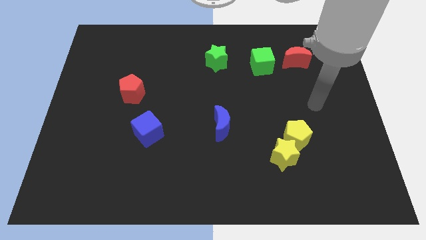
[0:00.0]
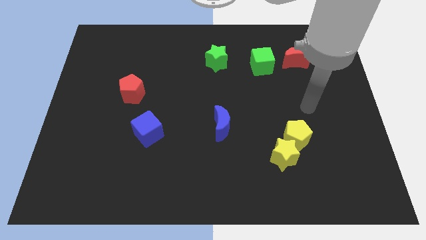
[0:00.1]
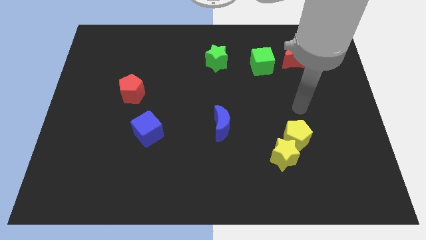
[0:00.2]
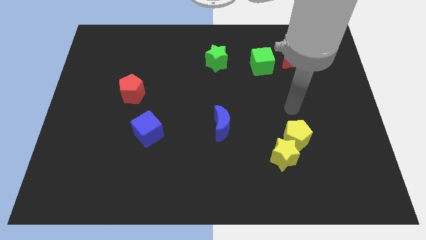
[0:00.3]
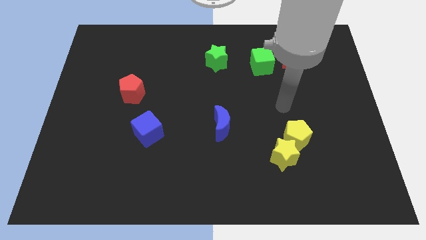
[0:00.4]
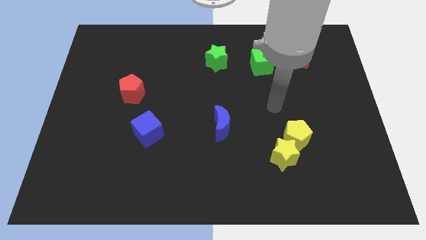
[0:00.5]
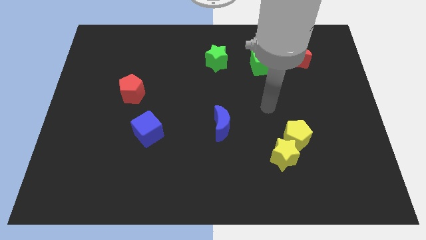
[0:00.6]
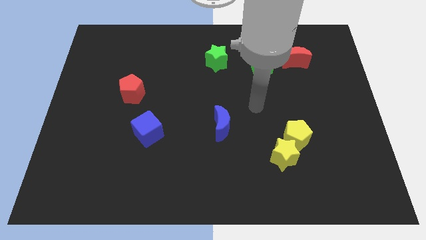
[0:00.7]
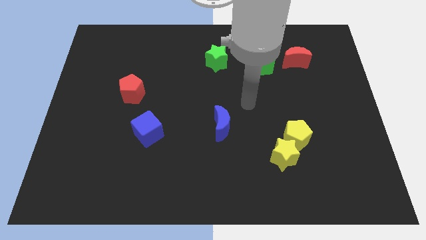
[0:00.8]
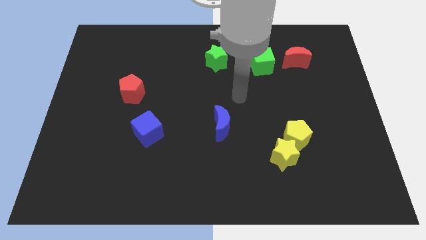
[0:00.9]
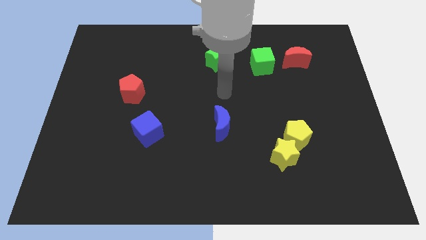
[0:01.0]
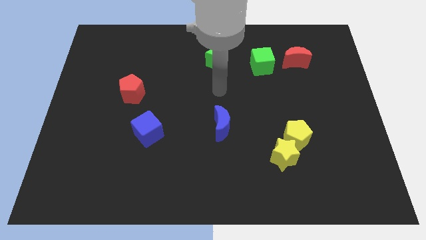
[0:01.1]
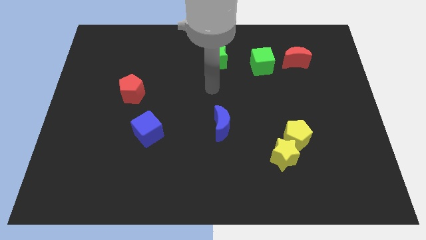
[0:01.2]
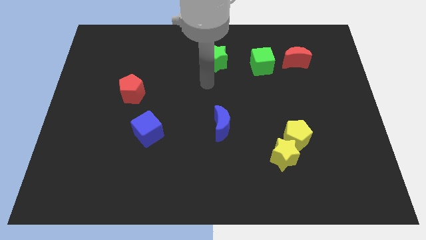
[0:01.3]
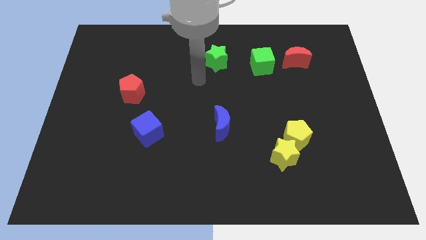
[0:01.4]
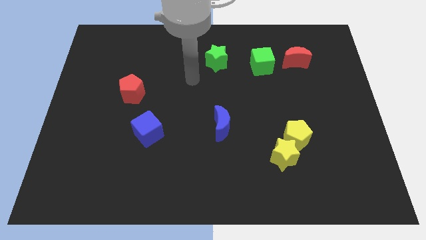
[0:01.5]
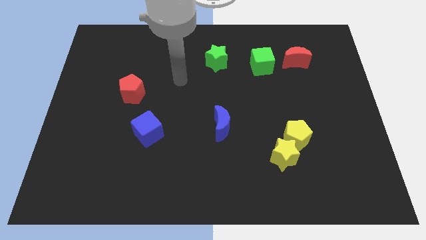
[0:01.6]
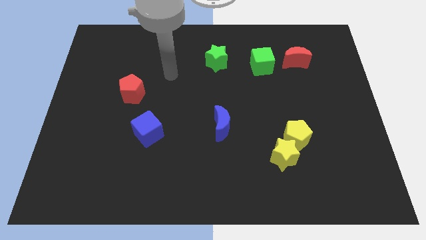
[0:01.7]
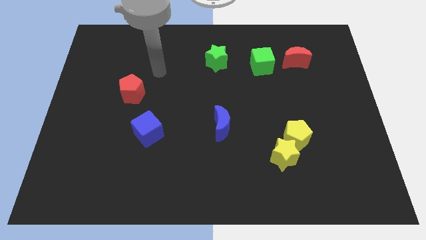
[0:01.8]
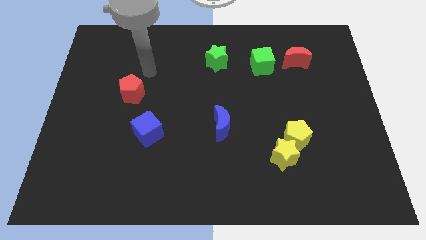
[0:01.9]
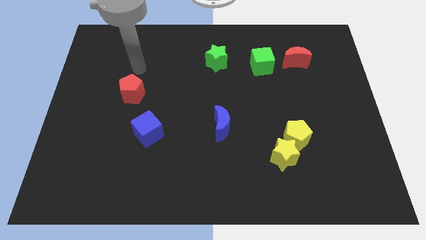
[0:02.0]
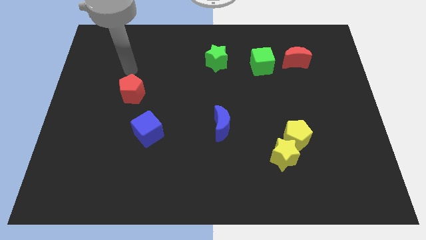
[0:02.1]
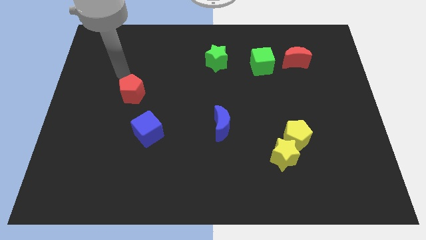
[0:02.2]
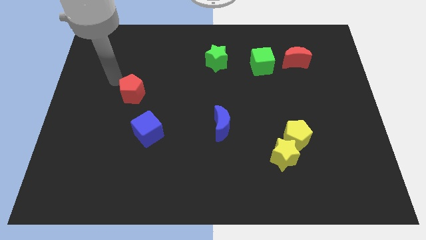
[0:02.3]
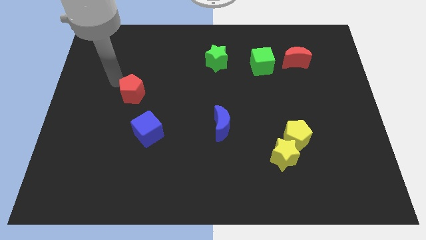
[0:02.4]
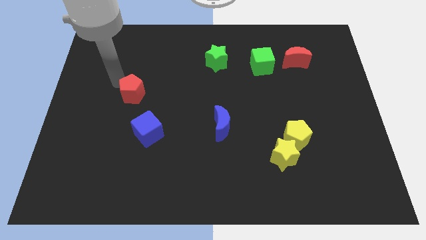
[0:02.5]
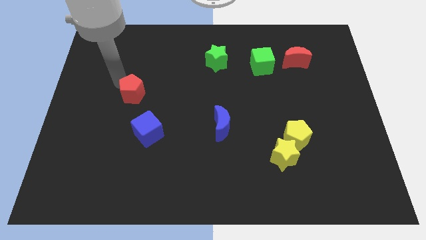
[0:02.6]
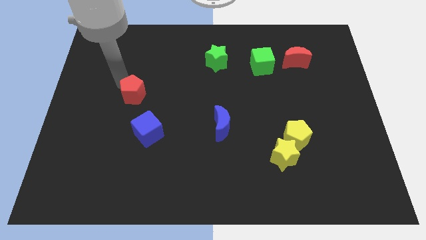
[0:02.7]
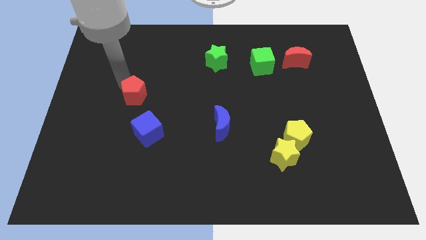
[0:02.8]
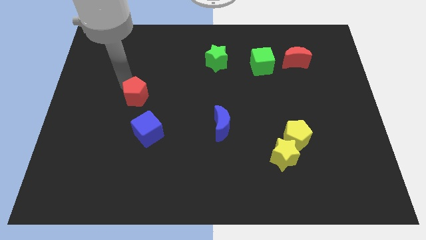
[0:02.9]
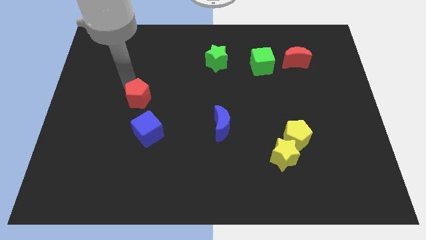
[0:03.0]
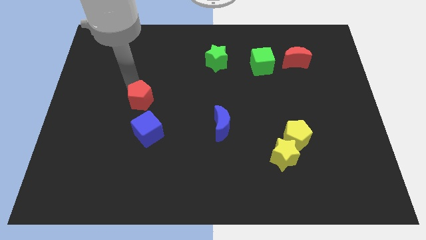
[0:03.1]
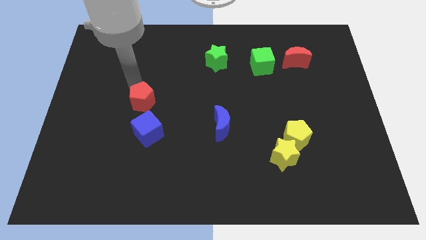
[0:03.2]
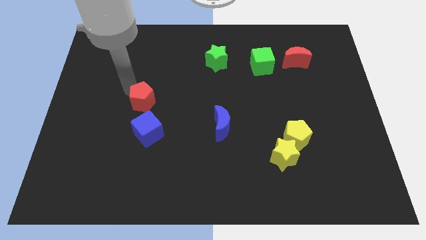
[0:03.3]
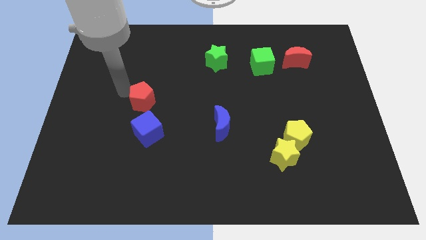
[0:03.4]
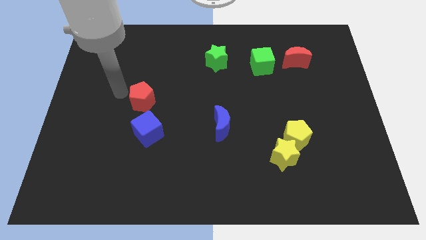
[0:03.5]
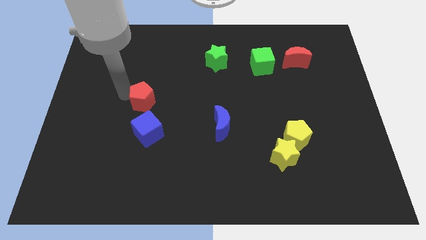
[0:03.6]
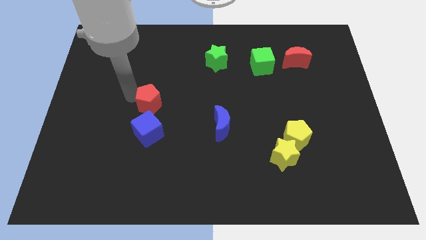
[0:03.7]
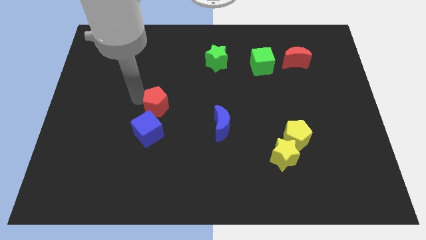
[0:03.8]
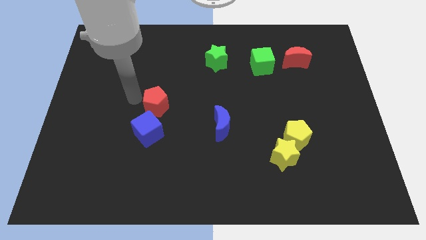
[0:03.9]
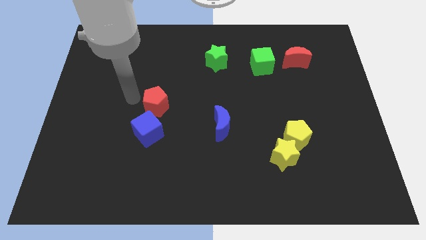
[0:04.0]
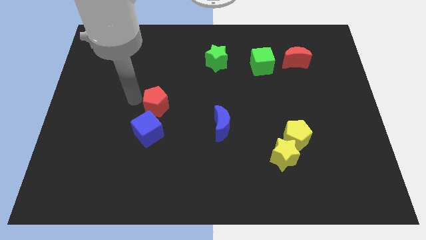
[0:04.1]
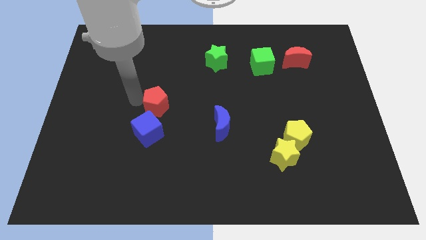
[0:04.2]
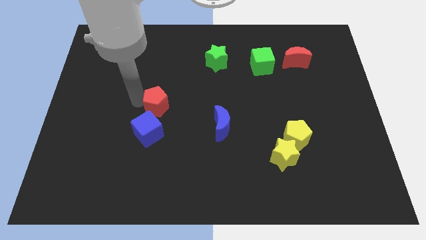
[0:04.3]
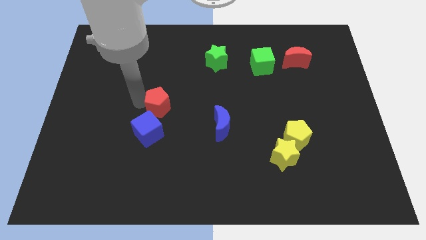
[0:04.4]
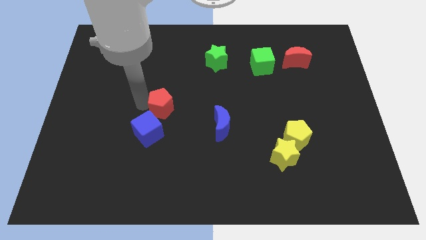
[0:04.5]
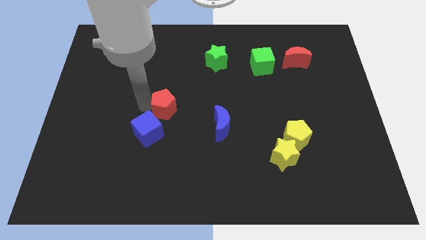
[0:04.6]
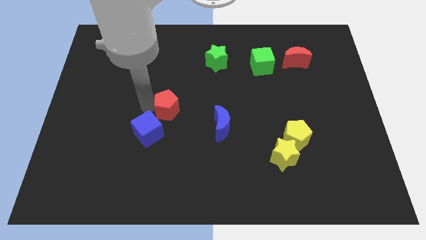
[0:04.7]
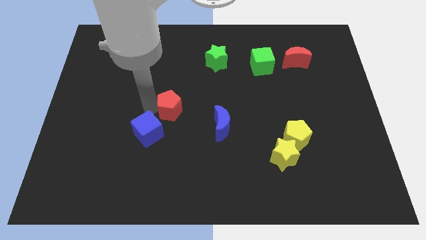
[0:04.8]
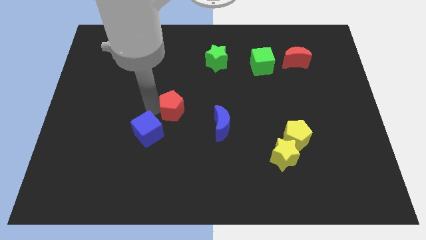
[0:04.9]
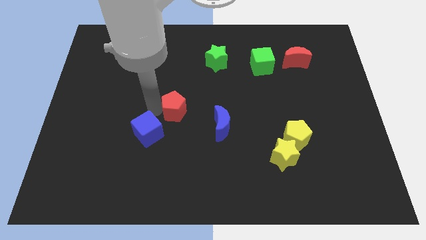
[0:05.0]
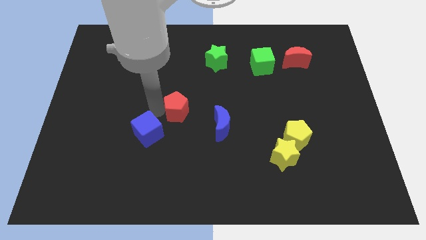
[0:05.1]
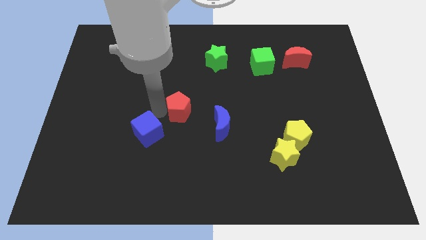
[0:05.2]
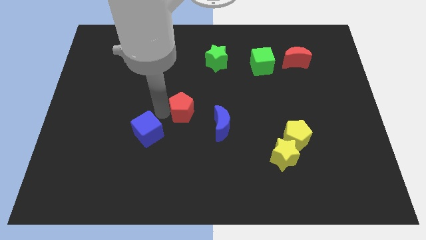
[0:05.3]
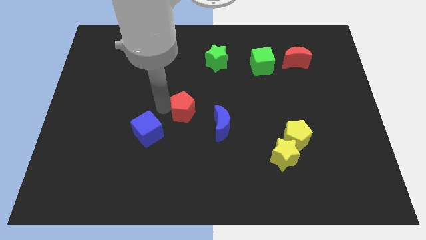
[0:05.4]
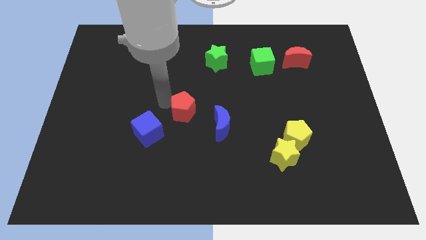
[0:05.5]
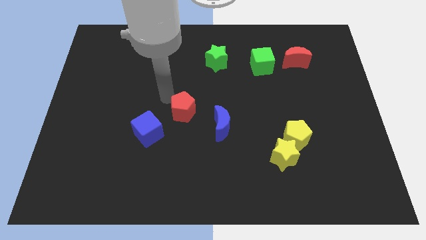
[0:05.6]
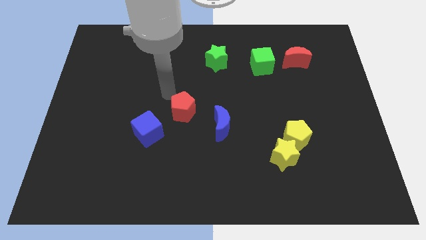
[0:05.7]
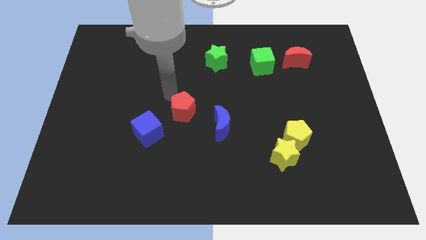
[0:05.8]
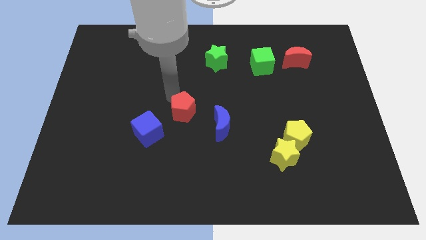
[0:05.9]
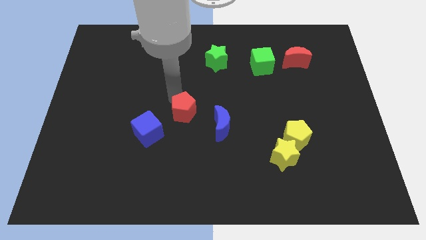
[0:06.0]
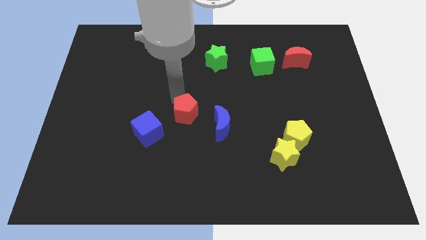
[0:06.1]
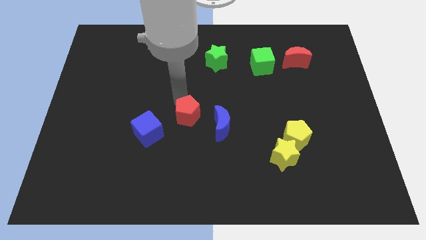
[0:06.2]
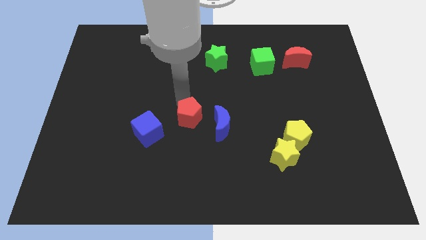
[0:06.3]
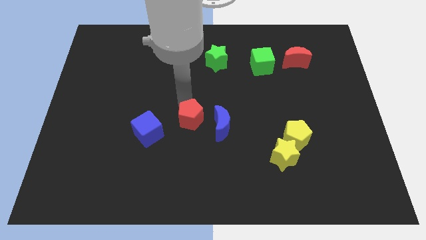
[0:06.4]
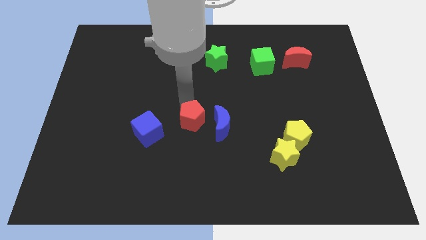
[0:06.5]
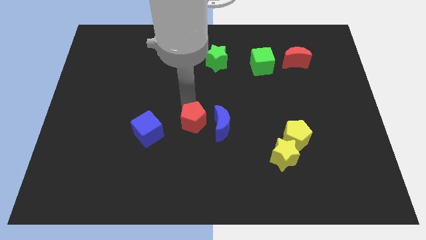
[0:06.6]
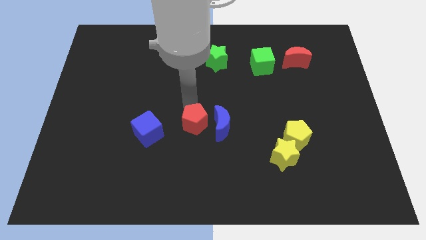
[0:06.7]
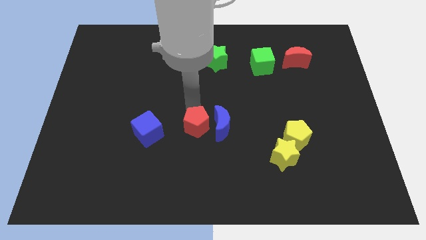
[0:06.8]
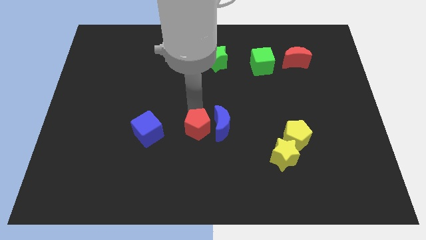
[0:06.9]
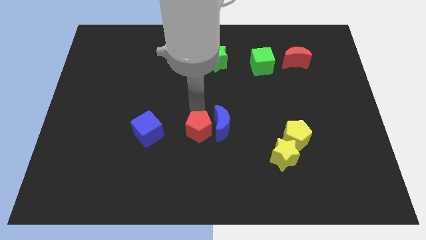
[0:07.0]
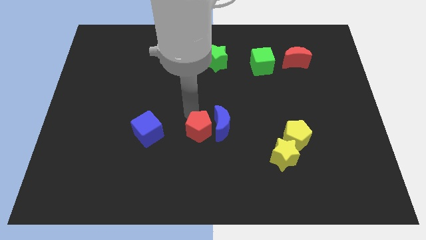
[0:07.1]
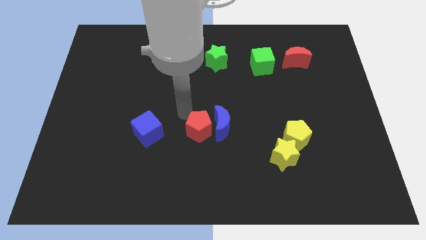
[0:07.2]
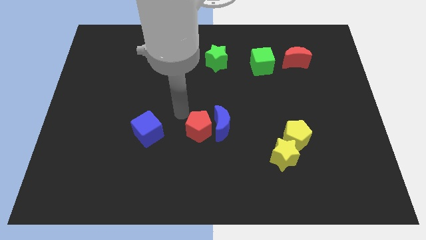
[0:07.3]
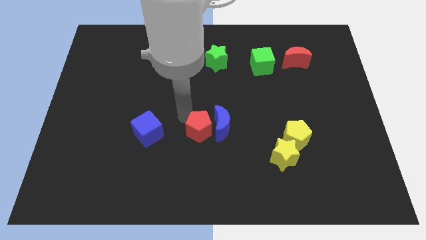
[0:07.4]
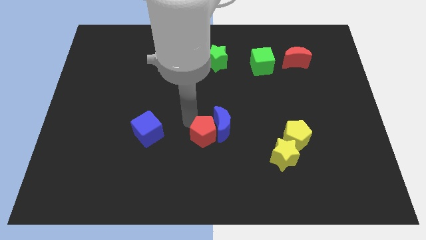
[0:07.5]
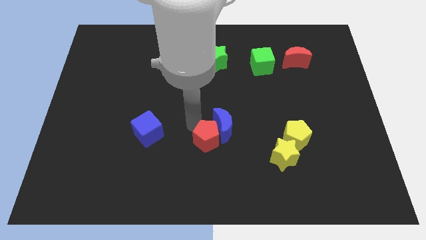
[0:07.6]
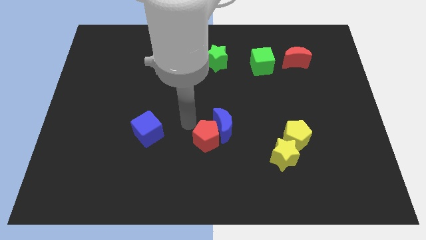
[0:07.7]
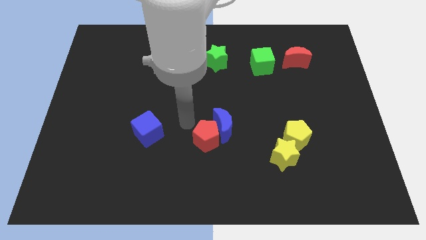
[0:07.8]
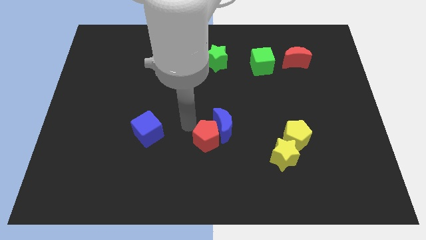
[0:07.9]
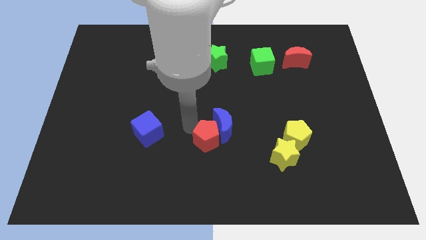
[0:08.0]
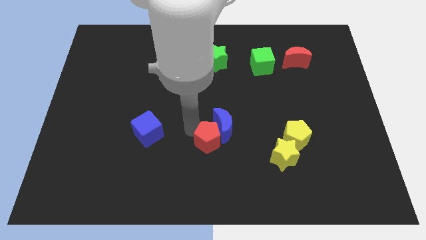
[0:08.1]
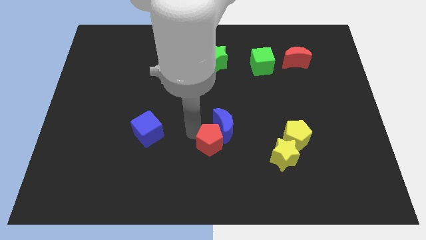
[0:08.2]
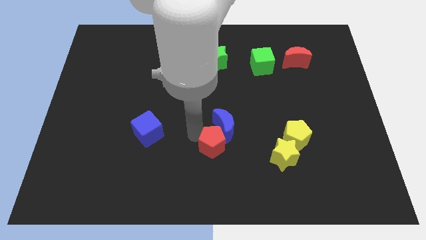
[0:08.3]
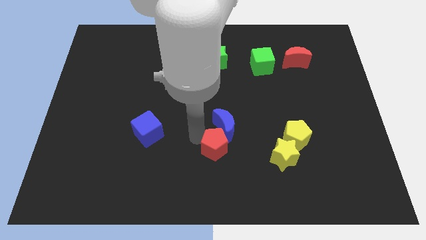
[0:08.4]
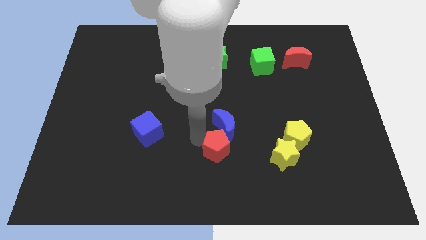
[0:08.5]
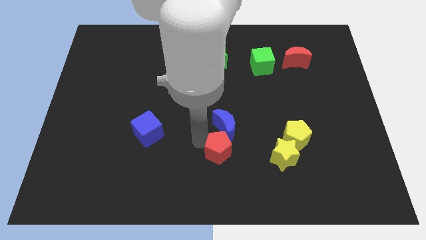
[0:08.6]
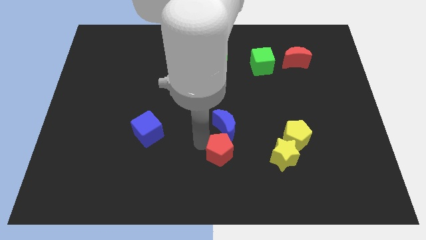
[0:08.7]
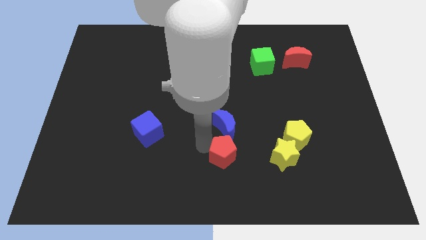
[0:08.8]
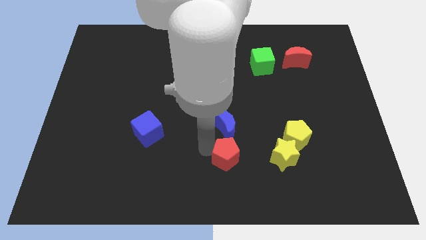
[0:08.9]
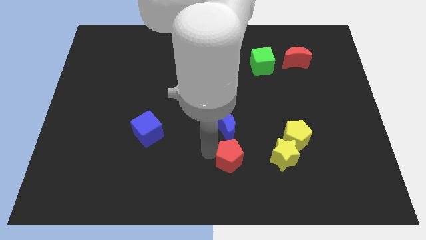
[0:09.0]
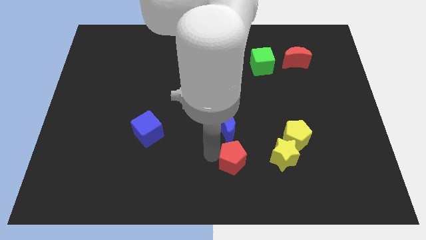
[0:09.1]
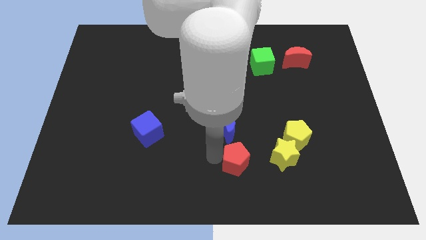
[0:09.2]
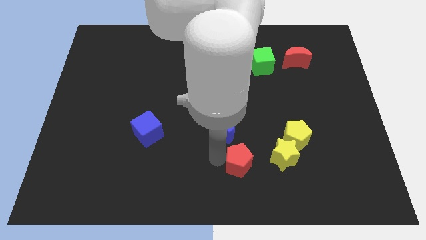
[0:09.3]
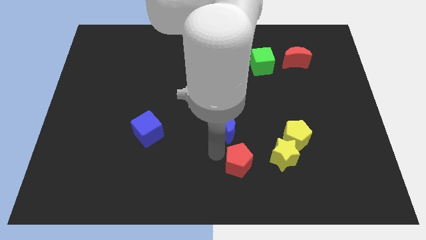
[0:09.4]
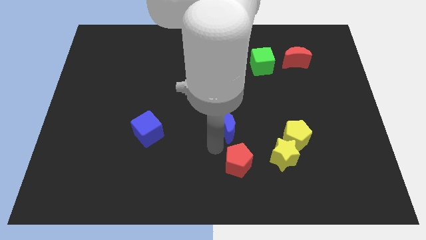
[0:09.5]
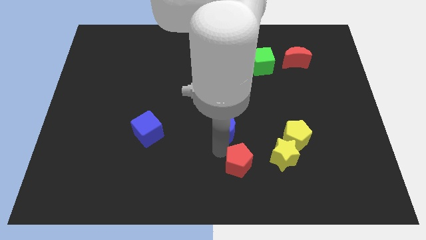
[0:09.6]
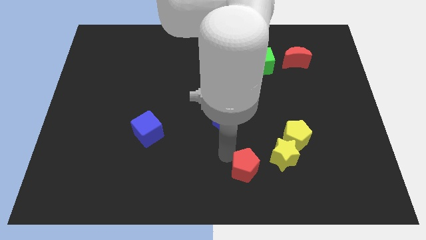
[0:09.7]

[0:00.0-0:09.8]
push the red pentagon diagonally down and to the left of the yellow star
